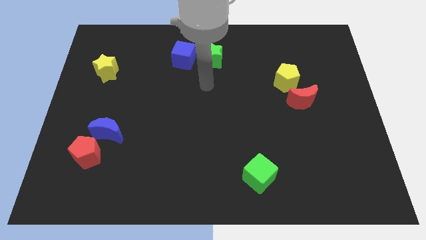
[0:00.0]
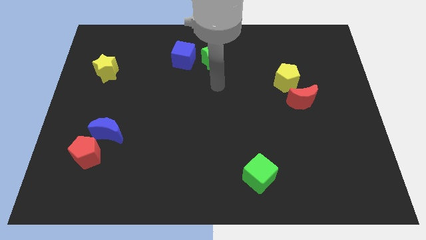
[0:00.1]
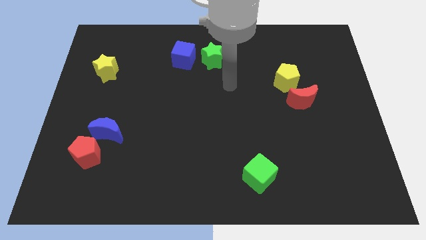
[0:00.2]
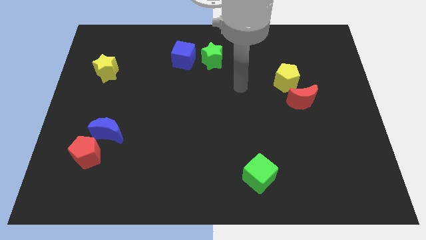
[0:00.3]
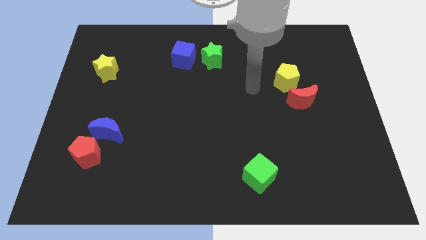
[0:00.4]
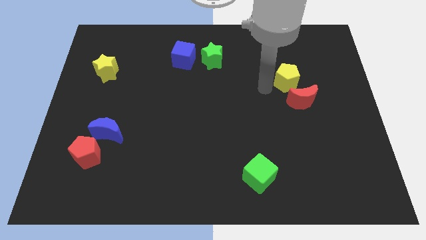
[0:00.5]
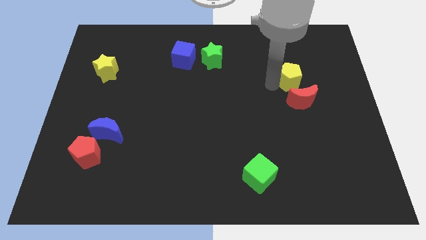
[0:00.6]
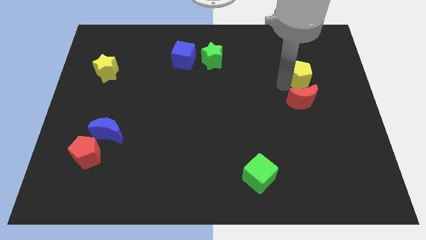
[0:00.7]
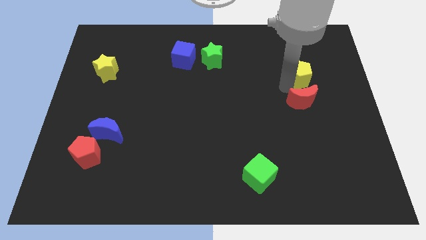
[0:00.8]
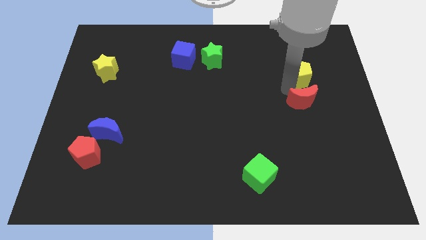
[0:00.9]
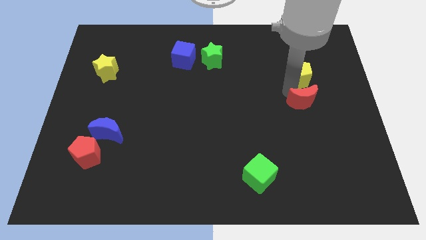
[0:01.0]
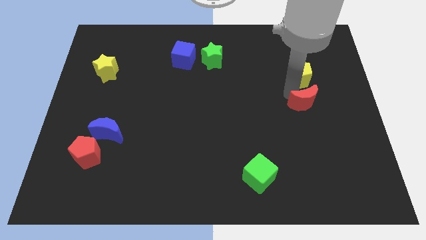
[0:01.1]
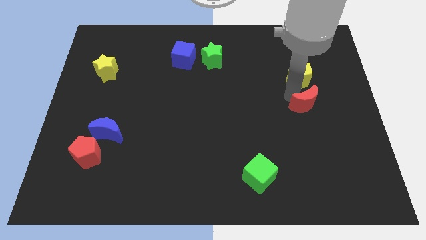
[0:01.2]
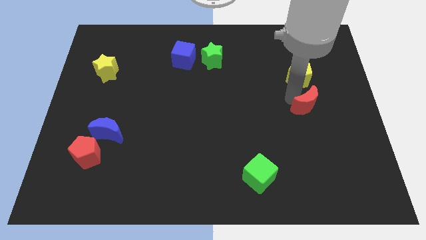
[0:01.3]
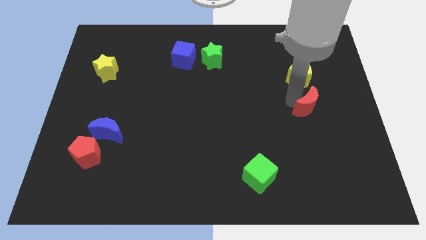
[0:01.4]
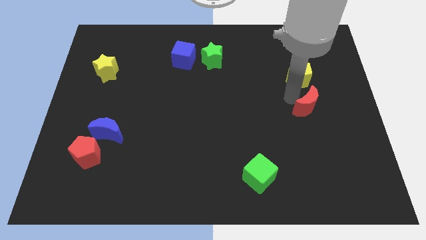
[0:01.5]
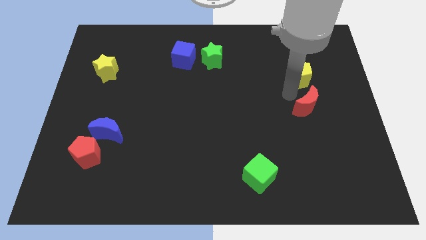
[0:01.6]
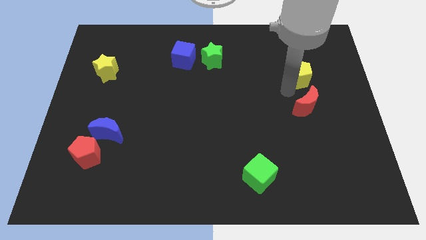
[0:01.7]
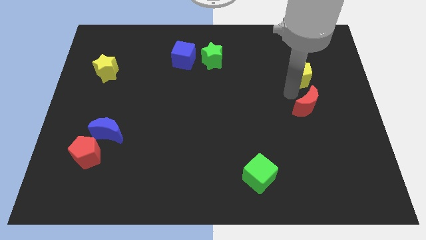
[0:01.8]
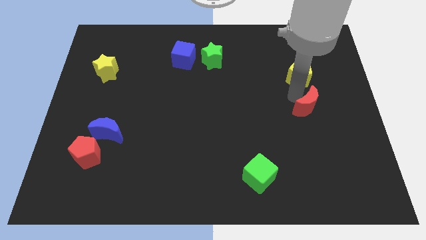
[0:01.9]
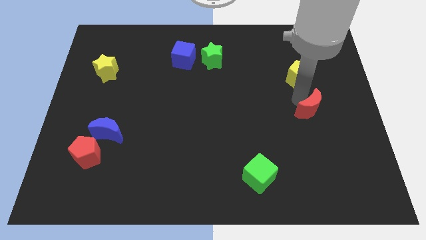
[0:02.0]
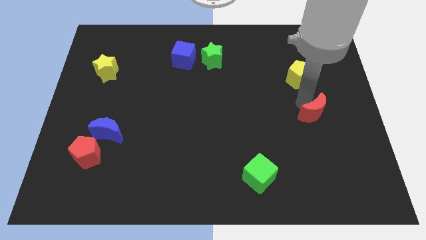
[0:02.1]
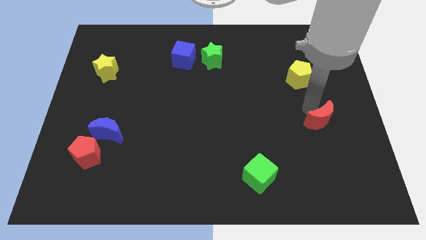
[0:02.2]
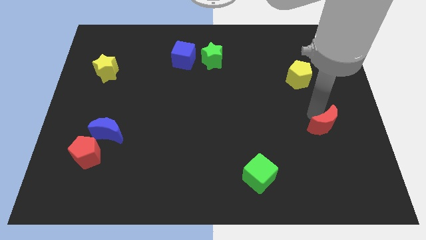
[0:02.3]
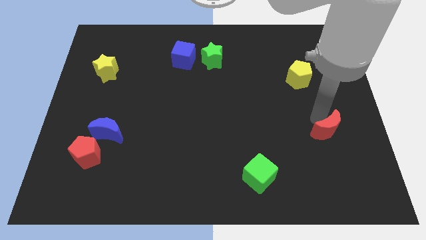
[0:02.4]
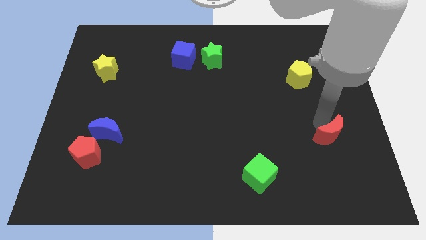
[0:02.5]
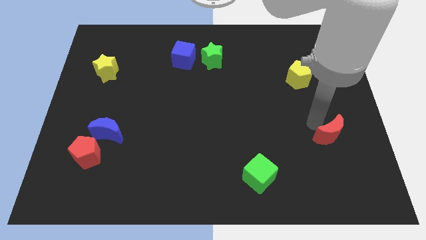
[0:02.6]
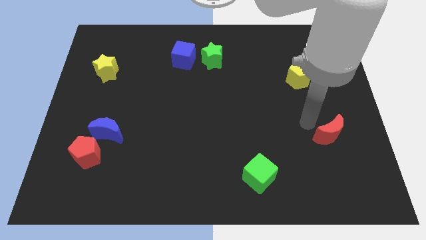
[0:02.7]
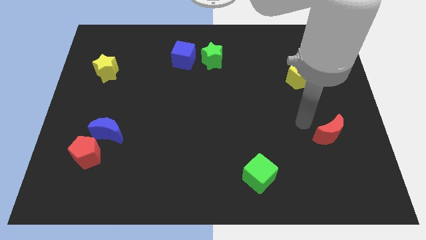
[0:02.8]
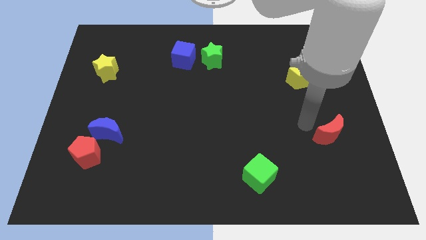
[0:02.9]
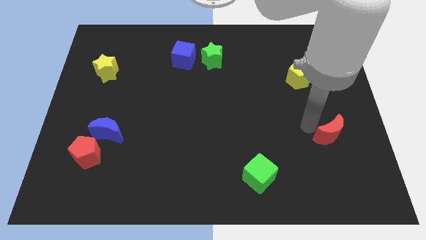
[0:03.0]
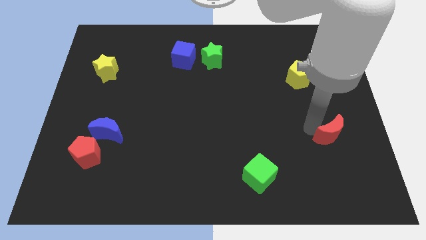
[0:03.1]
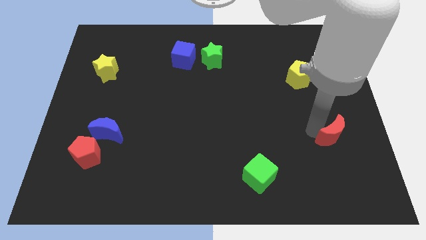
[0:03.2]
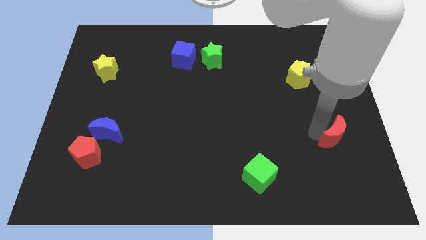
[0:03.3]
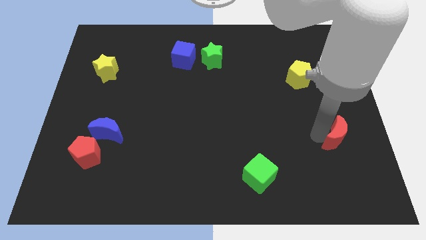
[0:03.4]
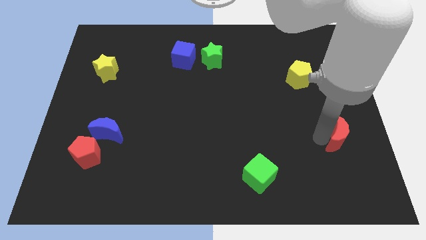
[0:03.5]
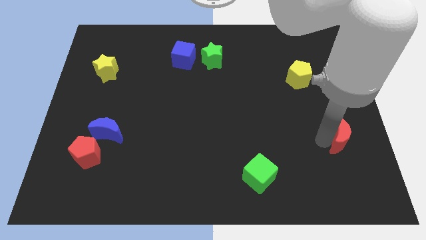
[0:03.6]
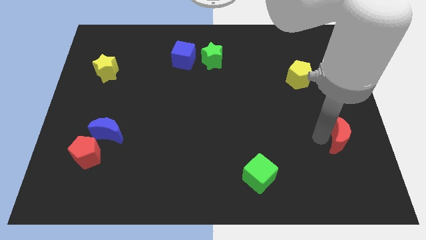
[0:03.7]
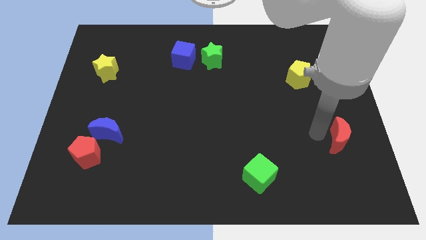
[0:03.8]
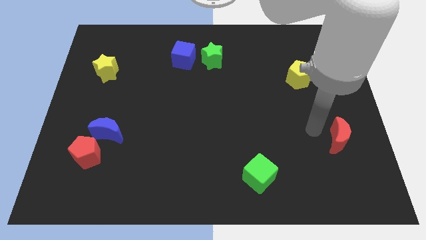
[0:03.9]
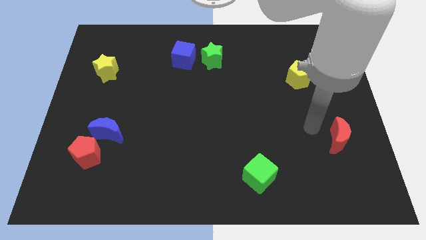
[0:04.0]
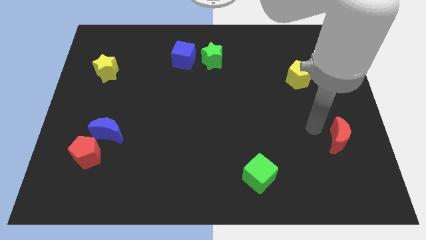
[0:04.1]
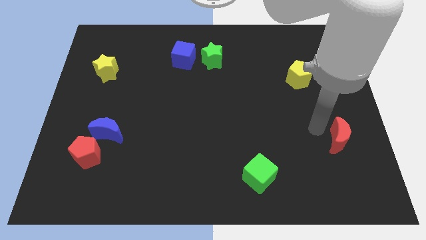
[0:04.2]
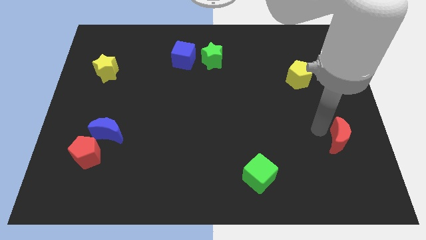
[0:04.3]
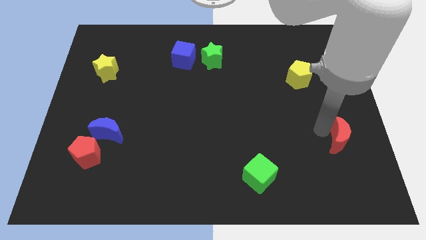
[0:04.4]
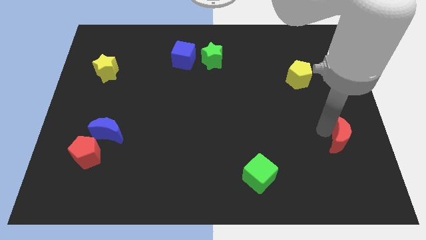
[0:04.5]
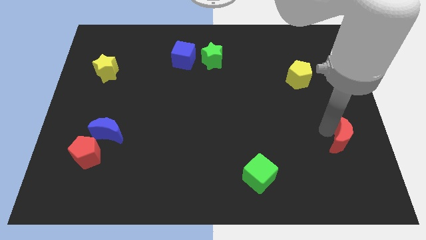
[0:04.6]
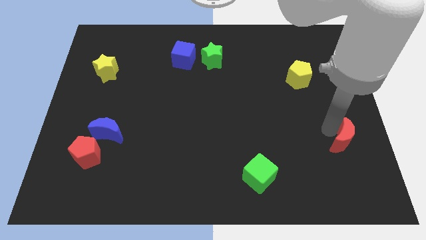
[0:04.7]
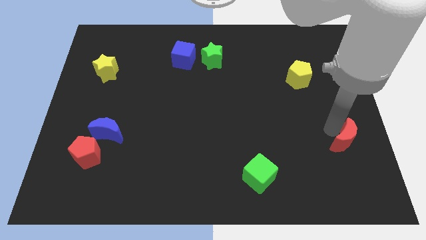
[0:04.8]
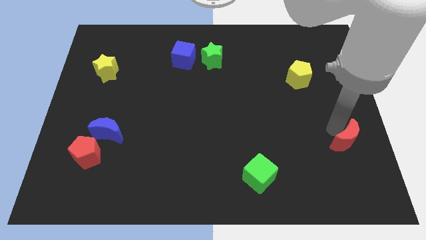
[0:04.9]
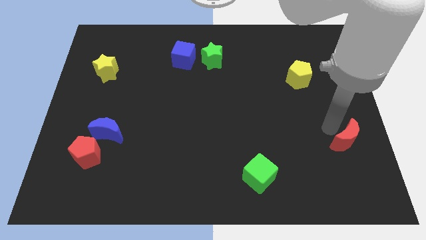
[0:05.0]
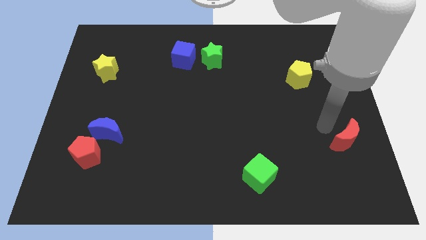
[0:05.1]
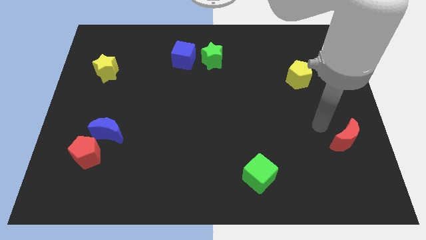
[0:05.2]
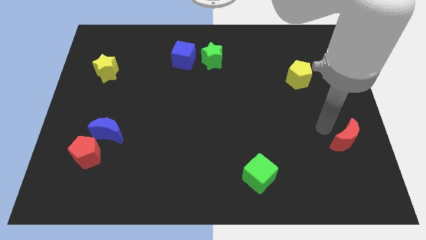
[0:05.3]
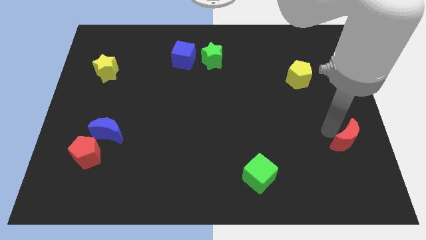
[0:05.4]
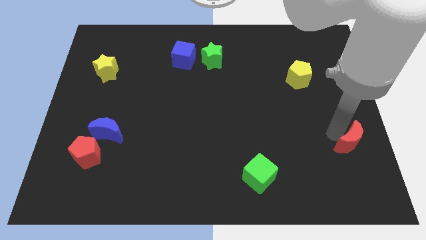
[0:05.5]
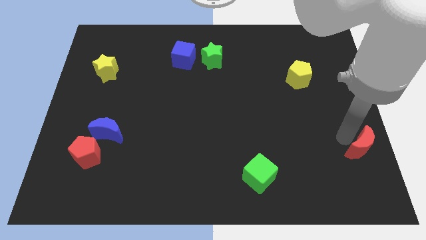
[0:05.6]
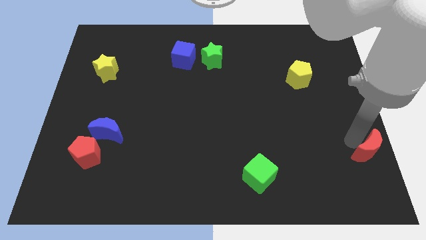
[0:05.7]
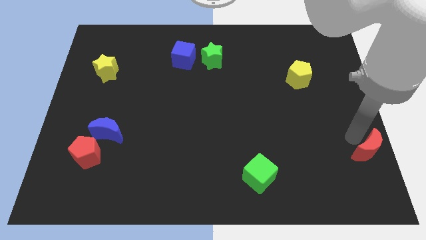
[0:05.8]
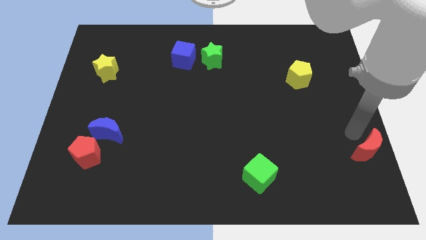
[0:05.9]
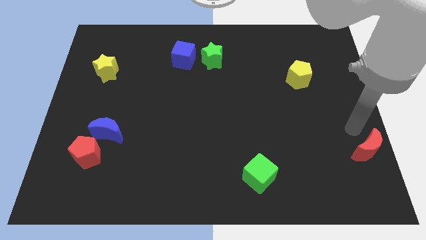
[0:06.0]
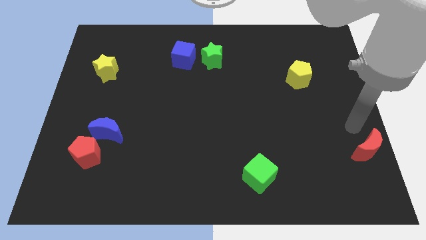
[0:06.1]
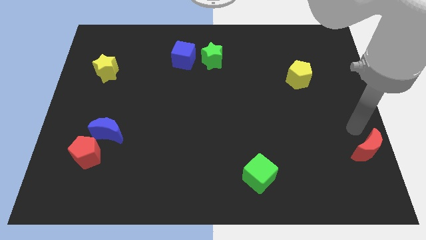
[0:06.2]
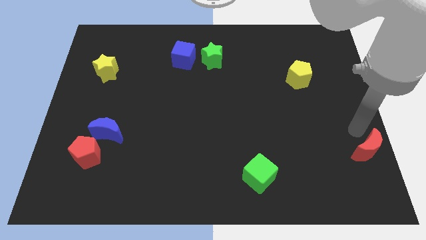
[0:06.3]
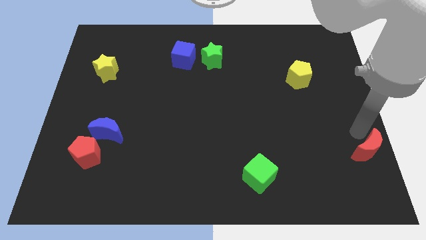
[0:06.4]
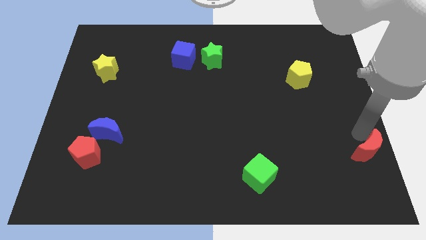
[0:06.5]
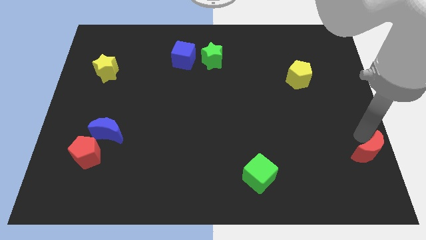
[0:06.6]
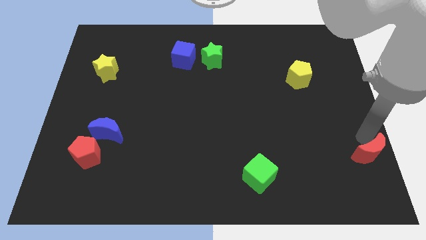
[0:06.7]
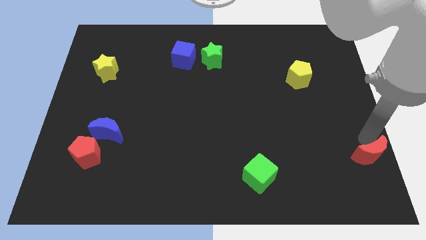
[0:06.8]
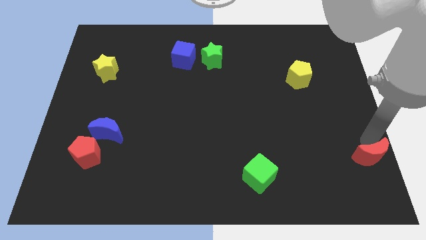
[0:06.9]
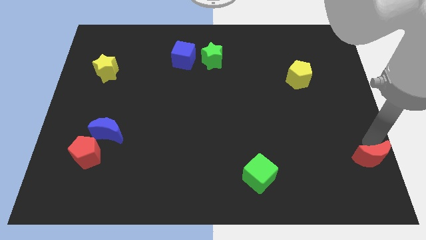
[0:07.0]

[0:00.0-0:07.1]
slide the red moon to the bottom right corner
